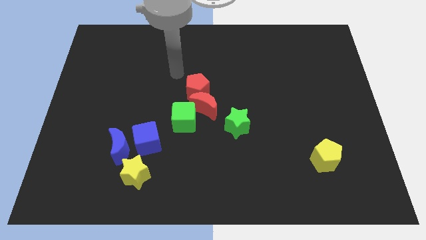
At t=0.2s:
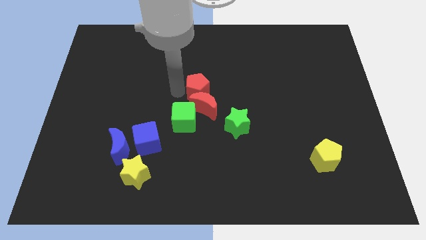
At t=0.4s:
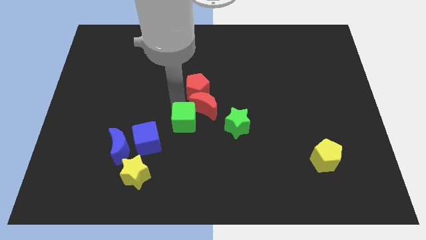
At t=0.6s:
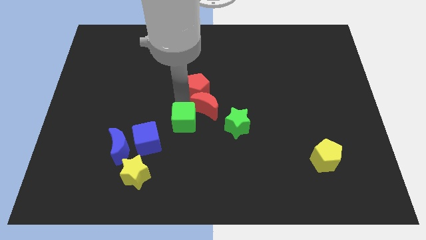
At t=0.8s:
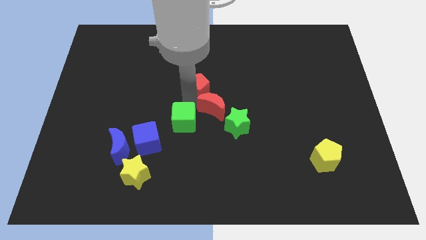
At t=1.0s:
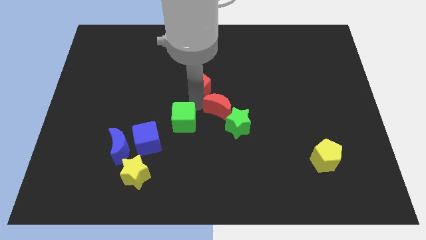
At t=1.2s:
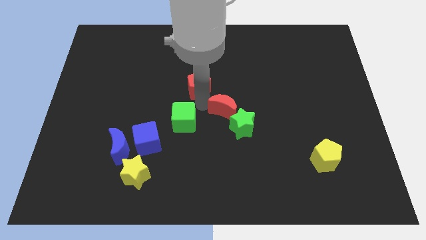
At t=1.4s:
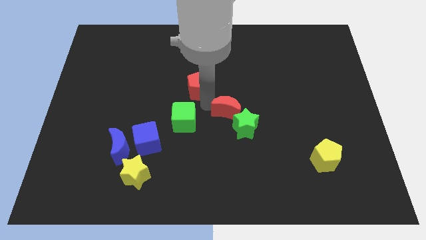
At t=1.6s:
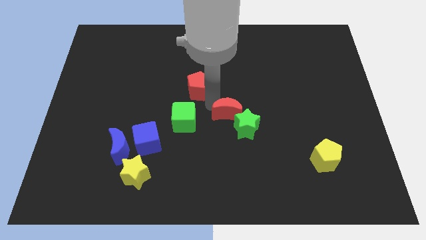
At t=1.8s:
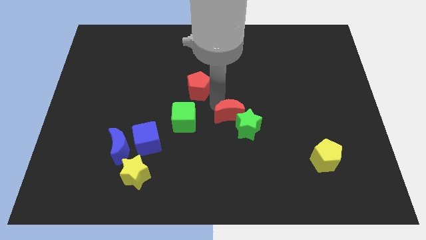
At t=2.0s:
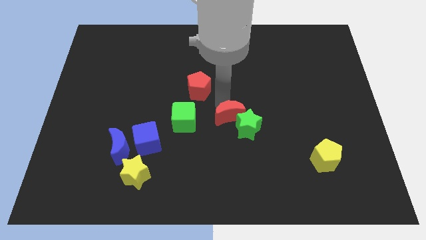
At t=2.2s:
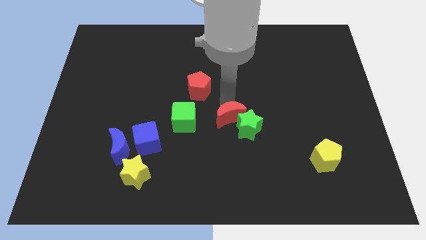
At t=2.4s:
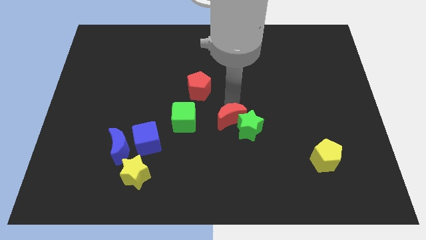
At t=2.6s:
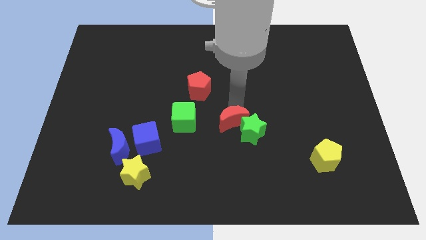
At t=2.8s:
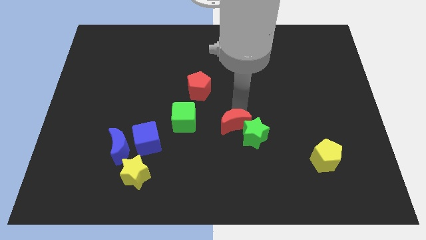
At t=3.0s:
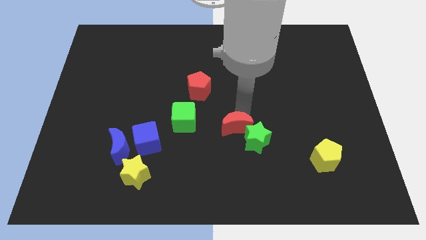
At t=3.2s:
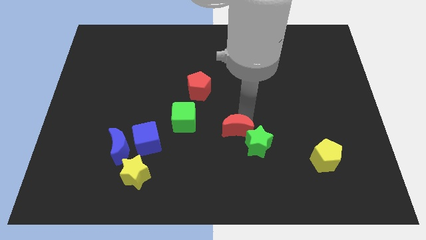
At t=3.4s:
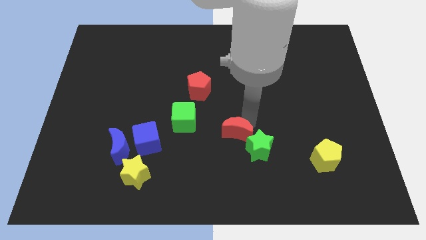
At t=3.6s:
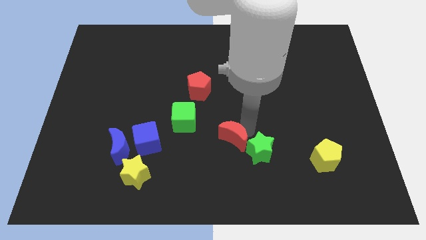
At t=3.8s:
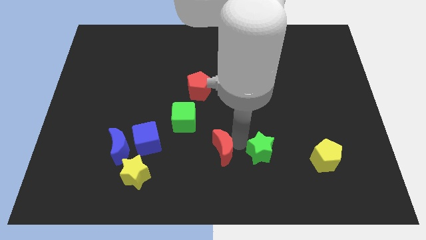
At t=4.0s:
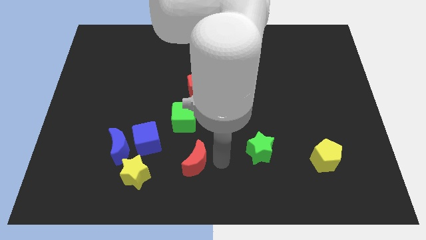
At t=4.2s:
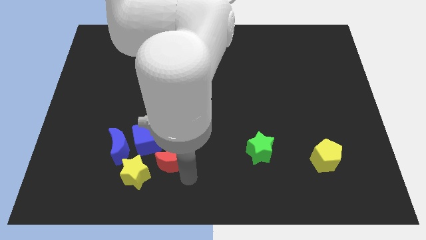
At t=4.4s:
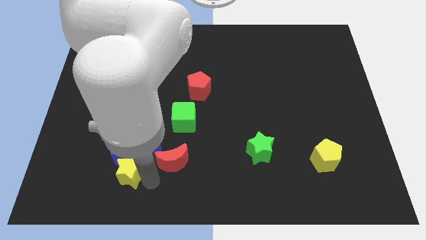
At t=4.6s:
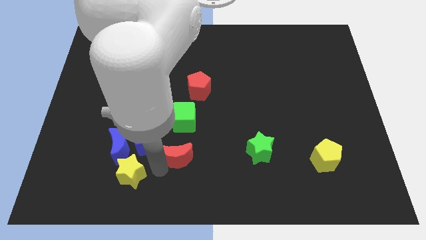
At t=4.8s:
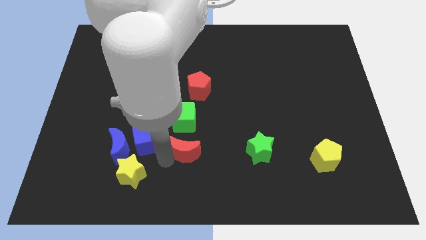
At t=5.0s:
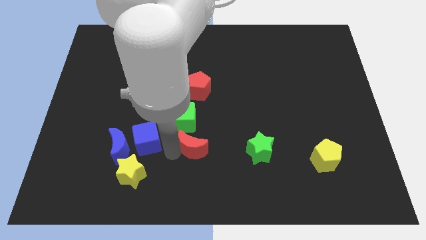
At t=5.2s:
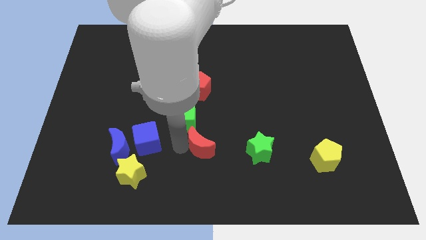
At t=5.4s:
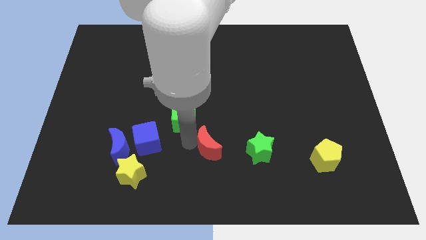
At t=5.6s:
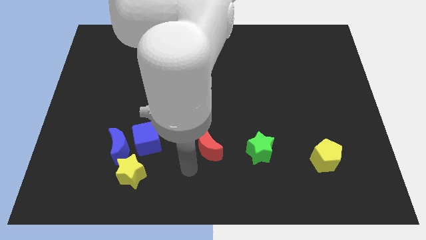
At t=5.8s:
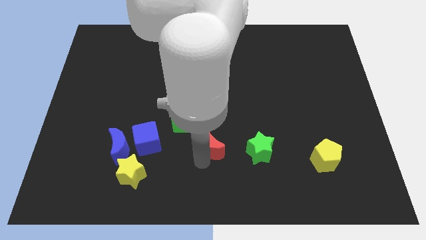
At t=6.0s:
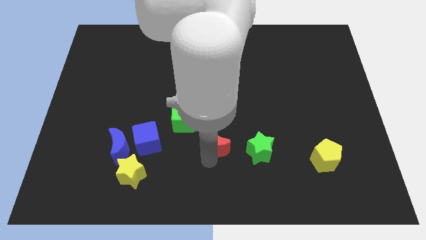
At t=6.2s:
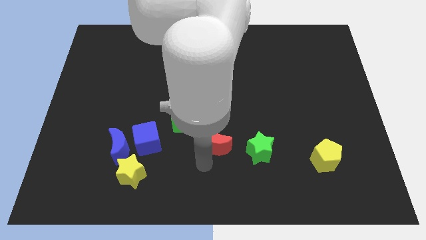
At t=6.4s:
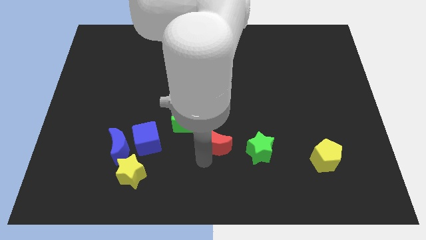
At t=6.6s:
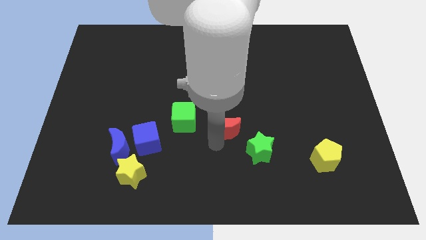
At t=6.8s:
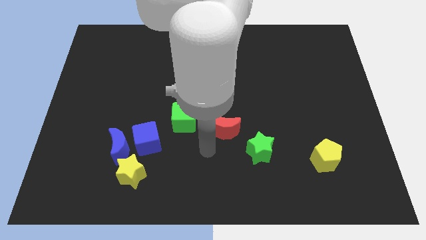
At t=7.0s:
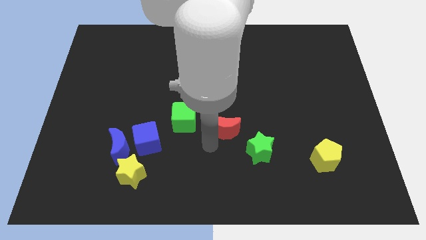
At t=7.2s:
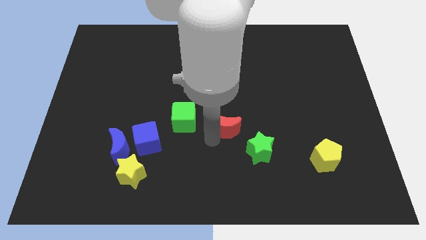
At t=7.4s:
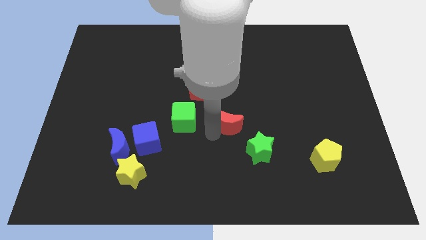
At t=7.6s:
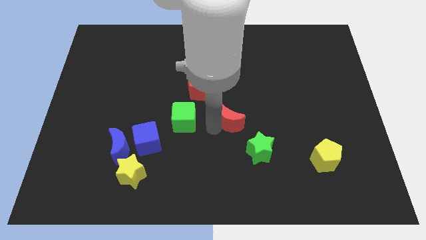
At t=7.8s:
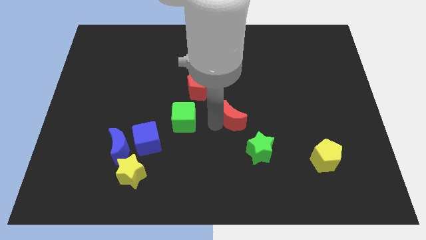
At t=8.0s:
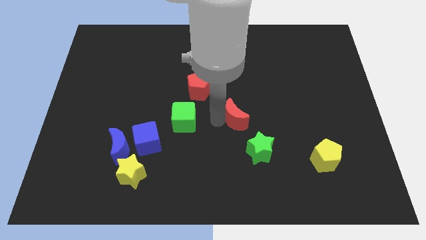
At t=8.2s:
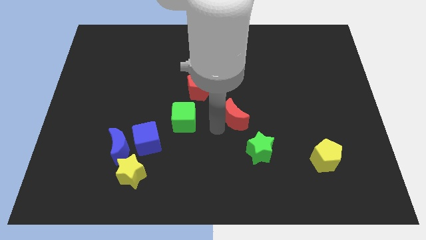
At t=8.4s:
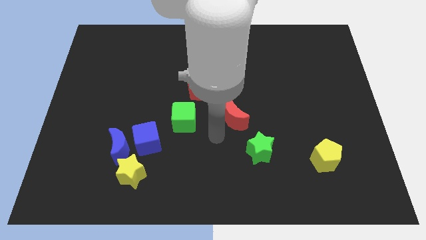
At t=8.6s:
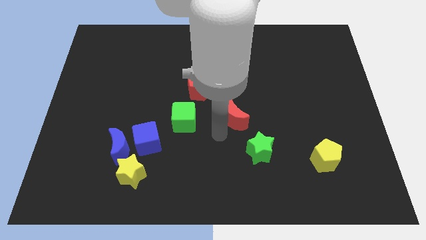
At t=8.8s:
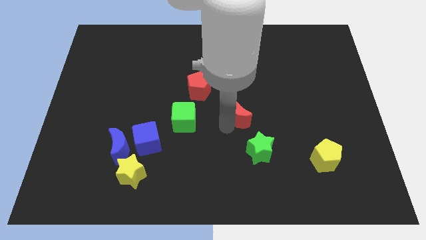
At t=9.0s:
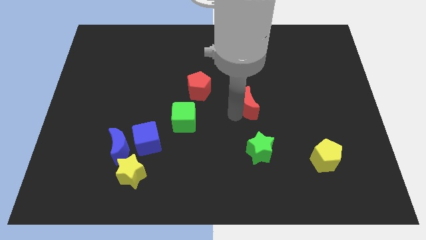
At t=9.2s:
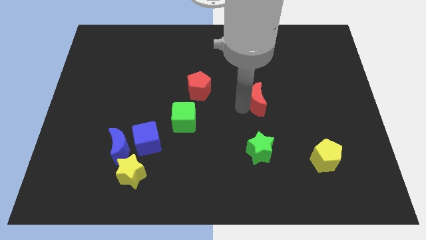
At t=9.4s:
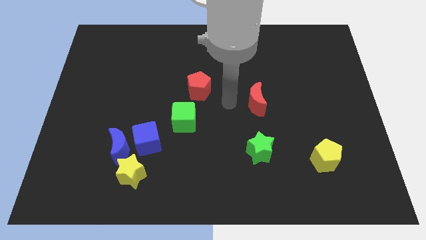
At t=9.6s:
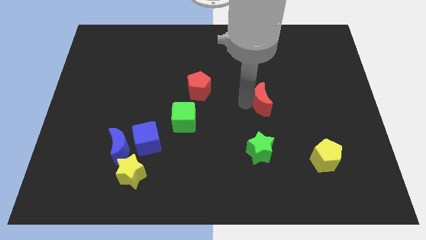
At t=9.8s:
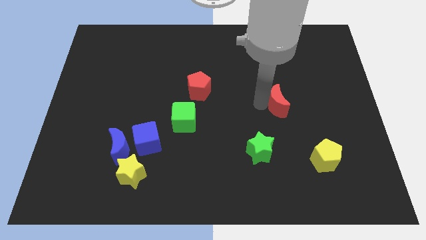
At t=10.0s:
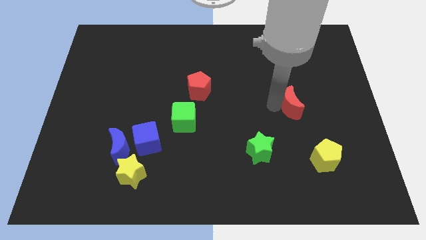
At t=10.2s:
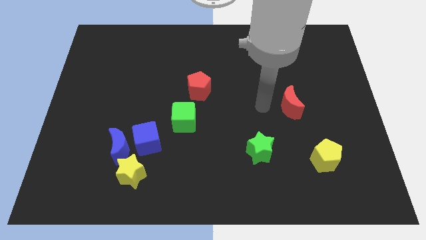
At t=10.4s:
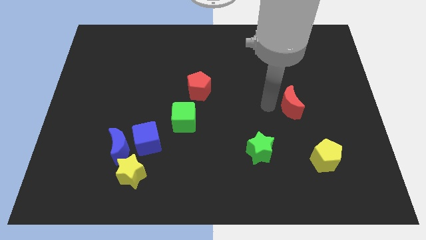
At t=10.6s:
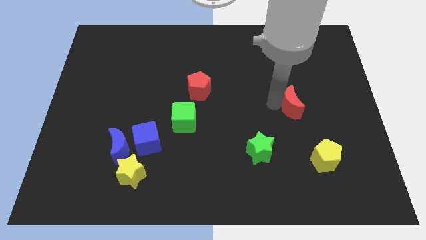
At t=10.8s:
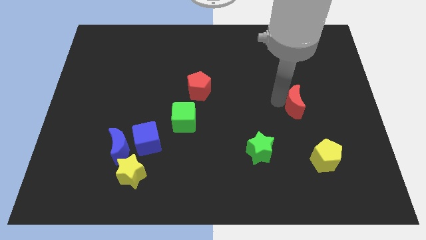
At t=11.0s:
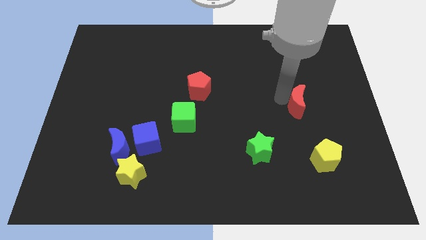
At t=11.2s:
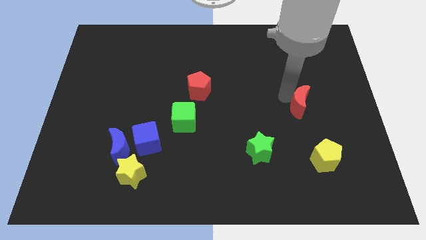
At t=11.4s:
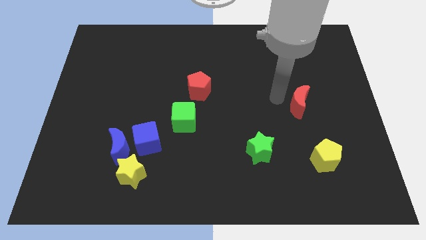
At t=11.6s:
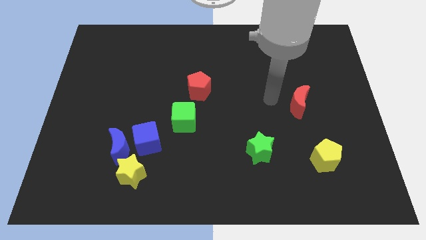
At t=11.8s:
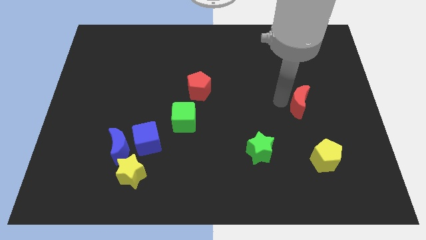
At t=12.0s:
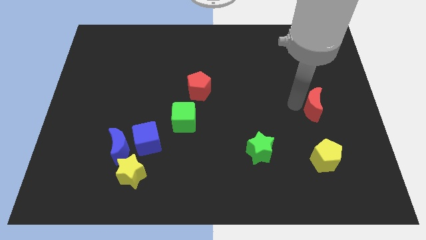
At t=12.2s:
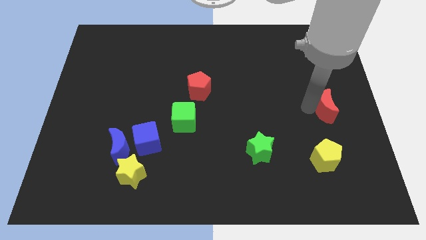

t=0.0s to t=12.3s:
slide the red moon to the center right

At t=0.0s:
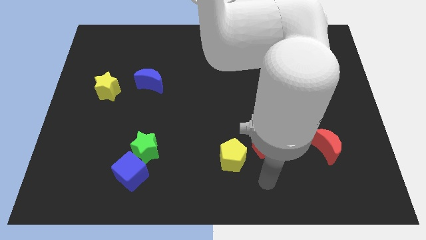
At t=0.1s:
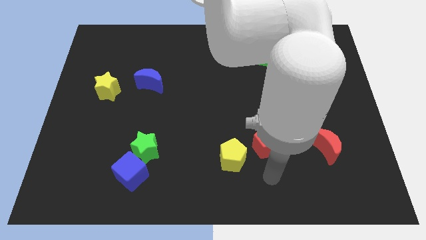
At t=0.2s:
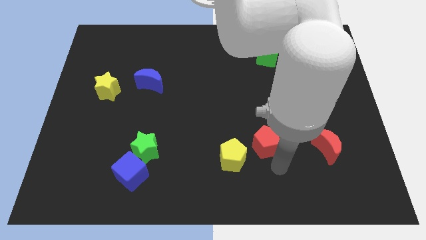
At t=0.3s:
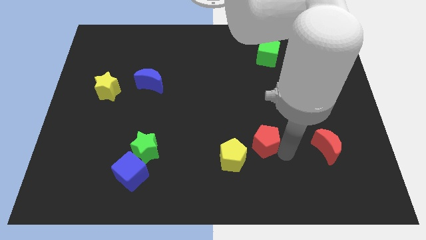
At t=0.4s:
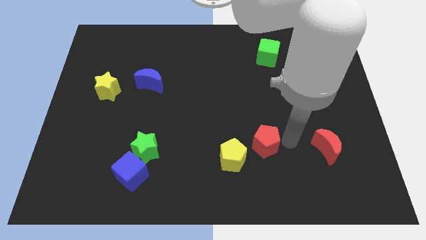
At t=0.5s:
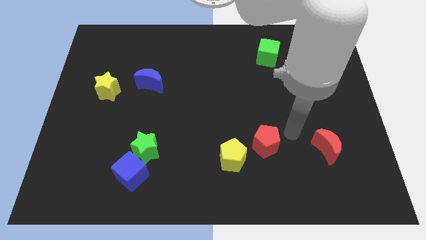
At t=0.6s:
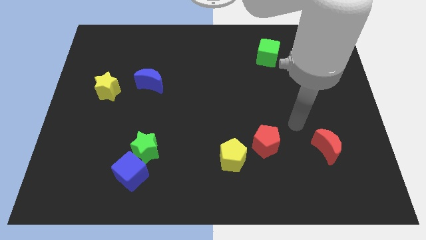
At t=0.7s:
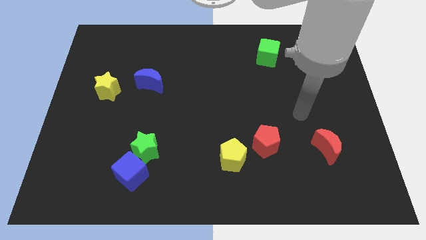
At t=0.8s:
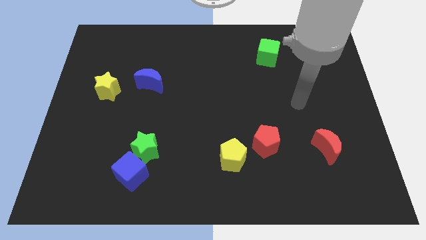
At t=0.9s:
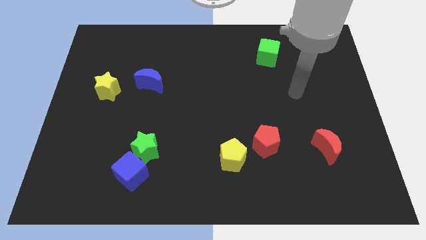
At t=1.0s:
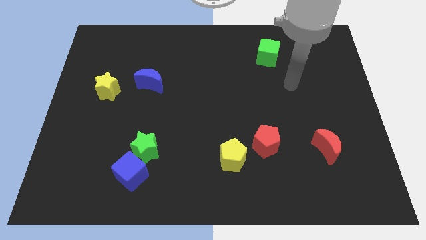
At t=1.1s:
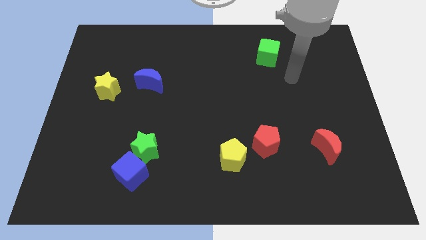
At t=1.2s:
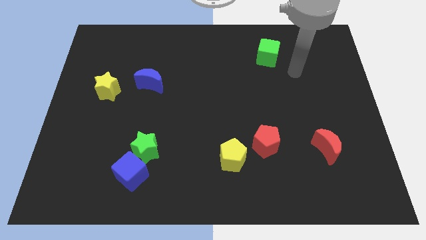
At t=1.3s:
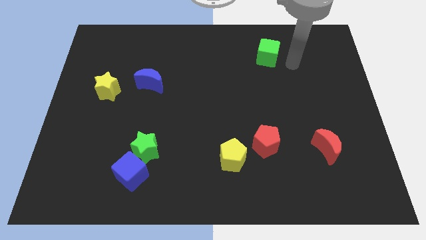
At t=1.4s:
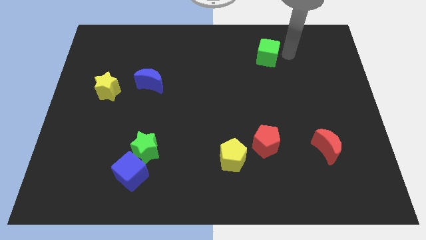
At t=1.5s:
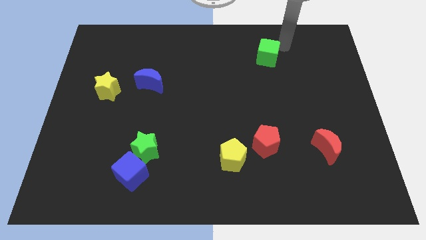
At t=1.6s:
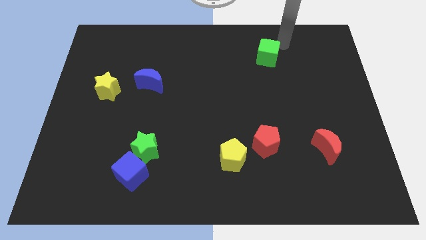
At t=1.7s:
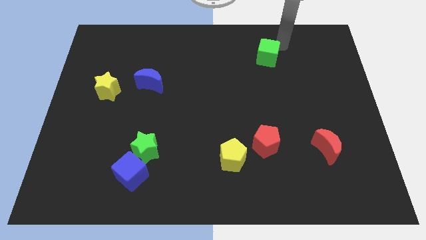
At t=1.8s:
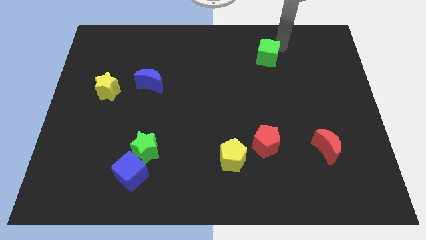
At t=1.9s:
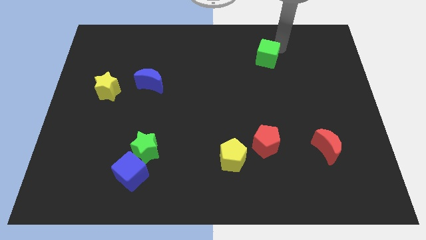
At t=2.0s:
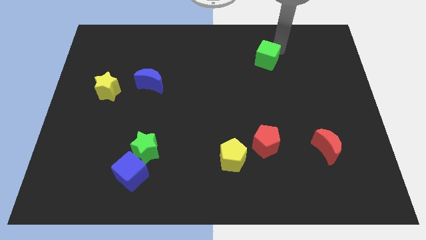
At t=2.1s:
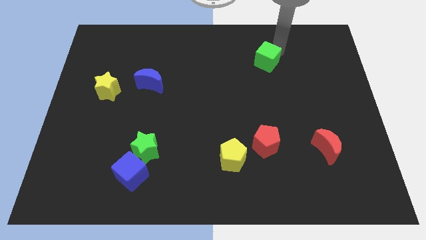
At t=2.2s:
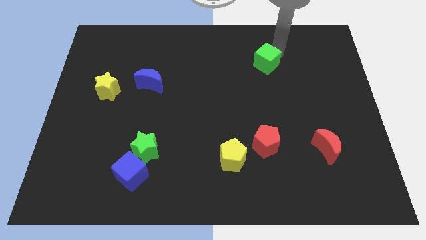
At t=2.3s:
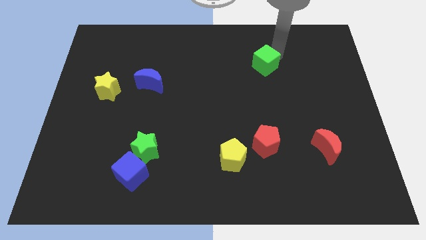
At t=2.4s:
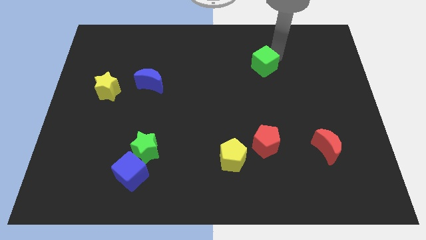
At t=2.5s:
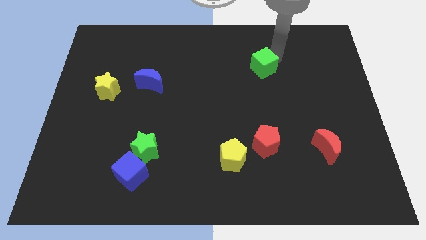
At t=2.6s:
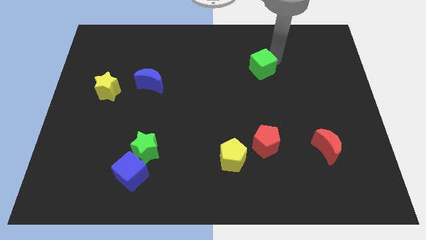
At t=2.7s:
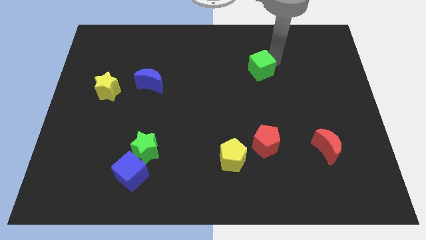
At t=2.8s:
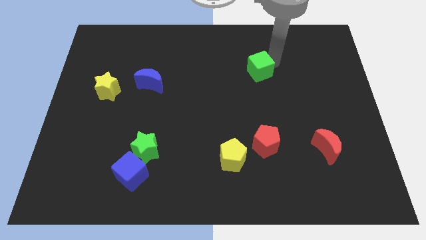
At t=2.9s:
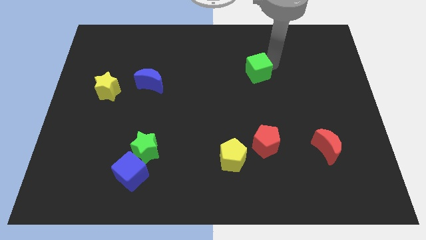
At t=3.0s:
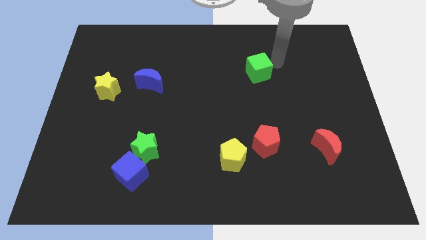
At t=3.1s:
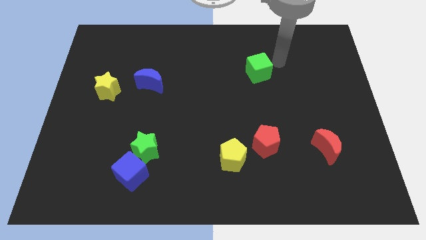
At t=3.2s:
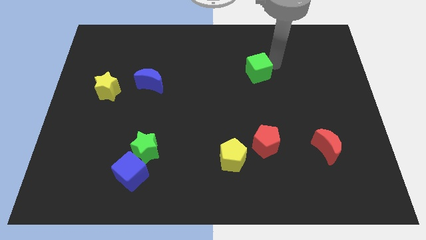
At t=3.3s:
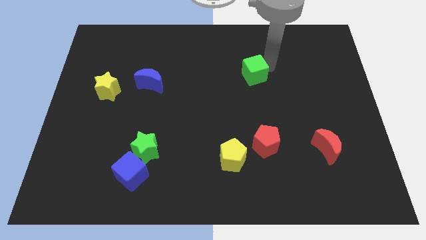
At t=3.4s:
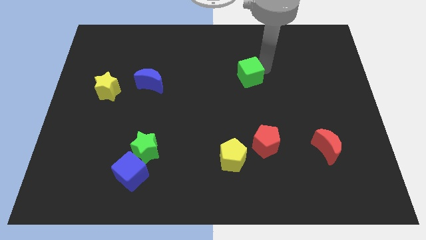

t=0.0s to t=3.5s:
slide the green cube to the center
